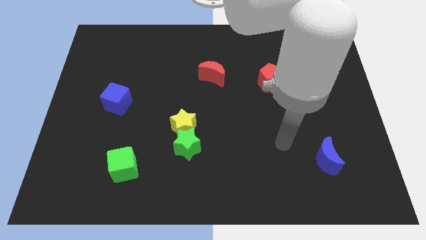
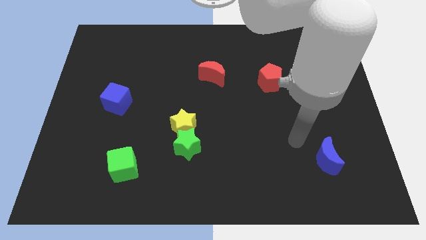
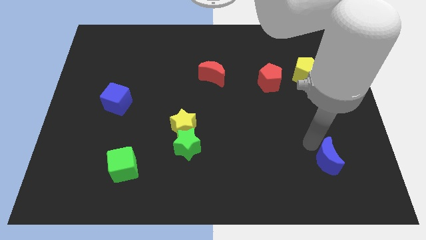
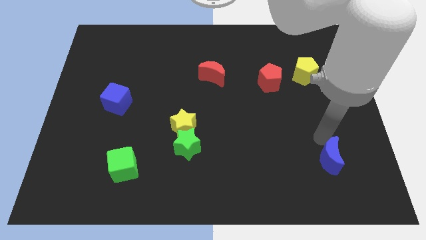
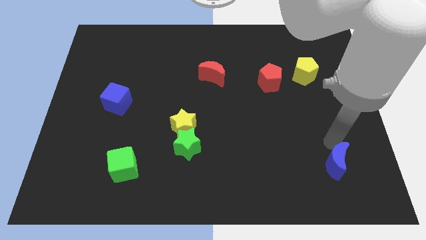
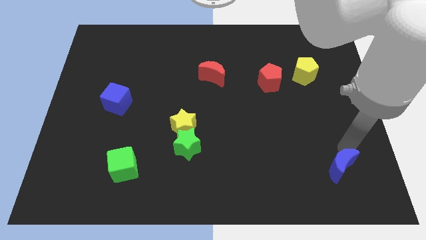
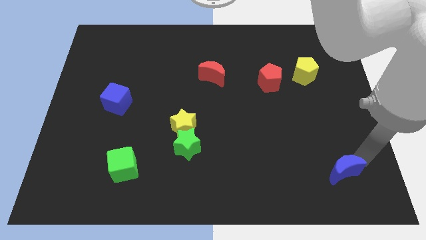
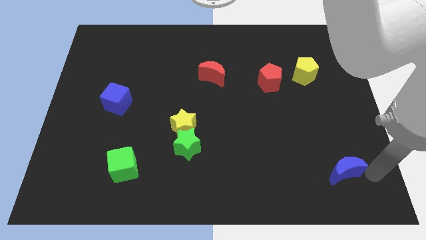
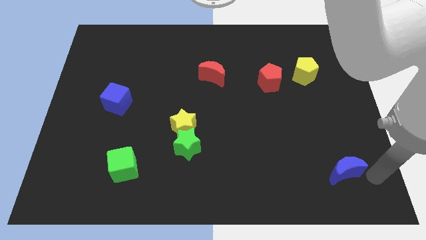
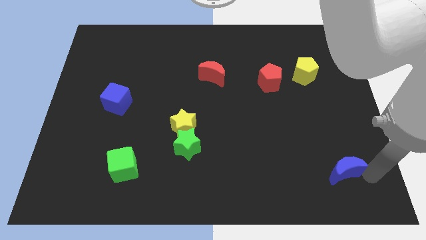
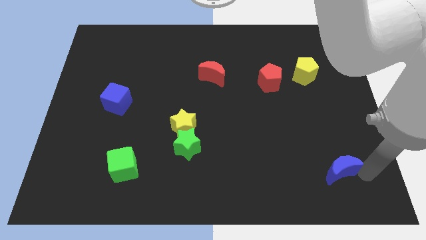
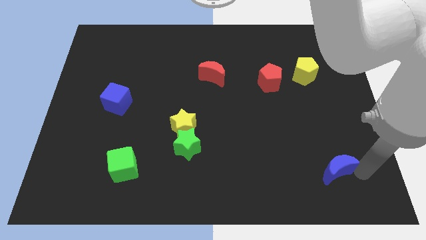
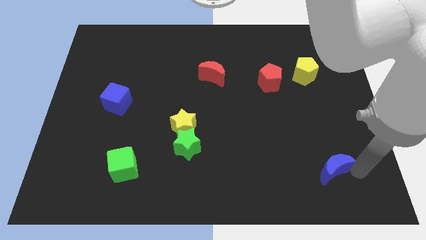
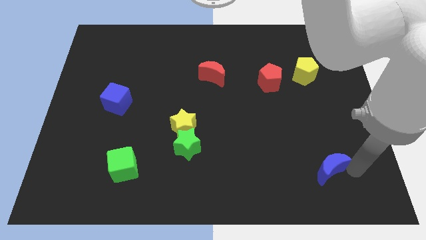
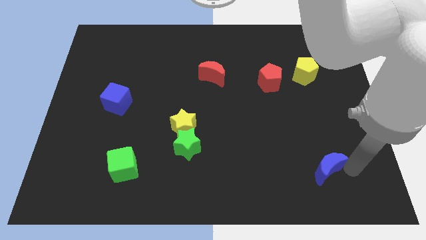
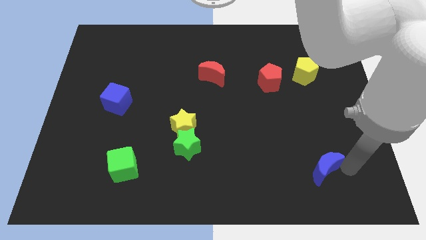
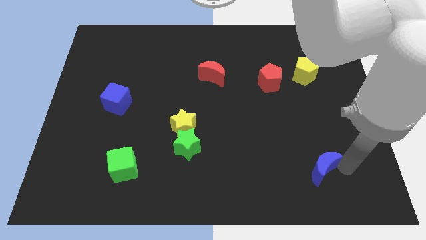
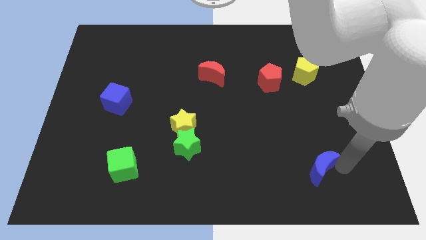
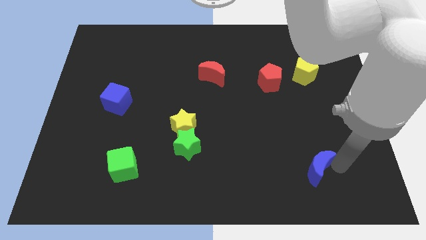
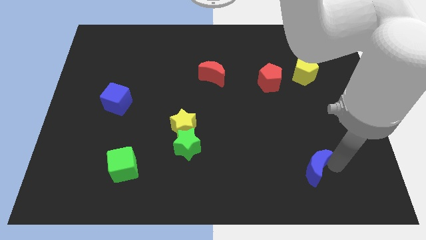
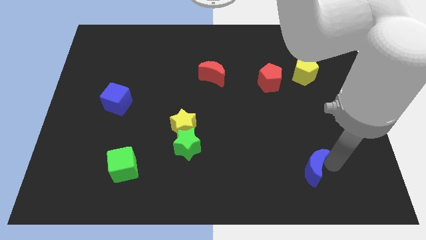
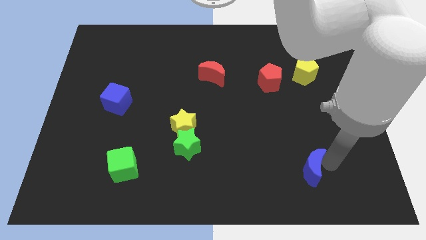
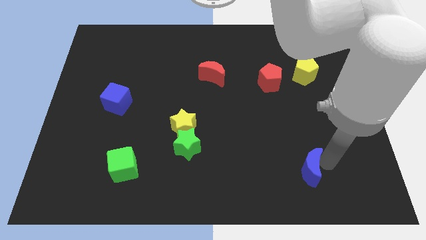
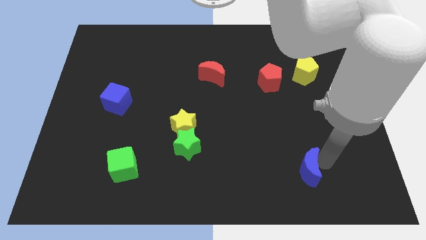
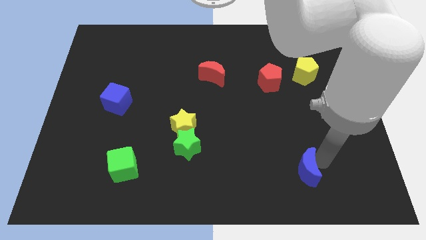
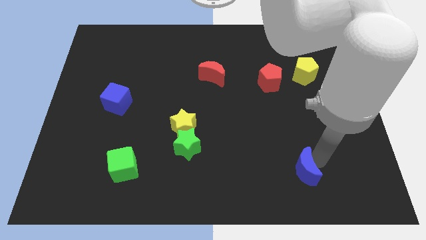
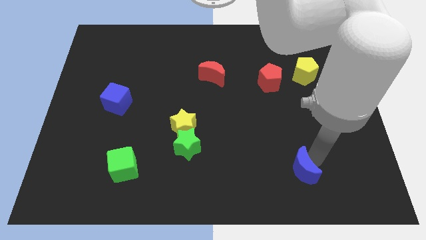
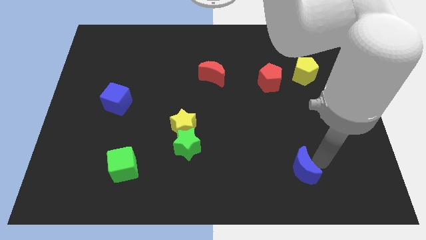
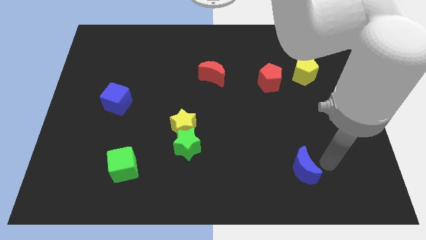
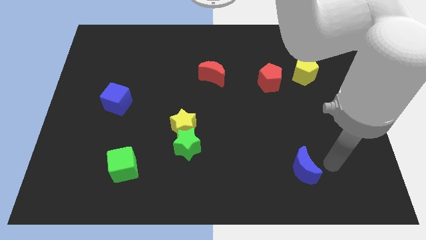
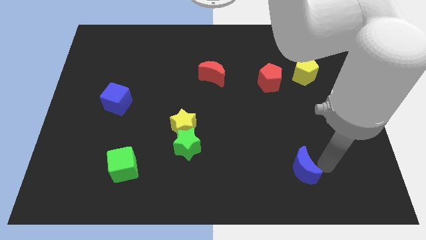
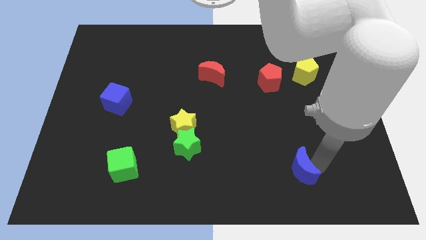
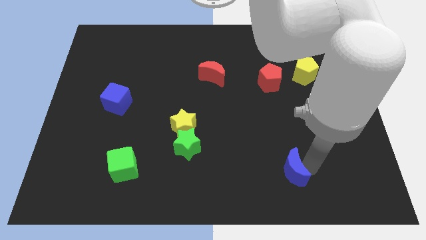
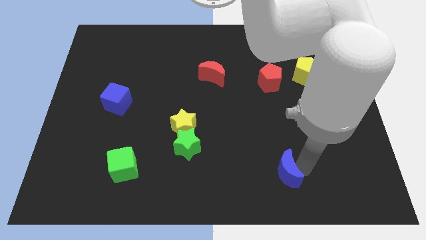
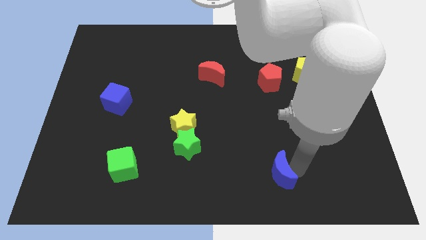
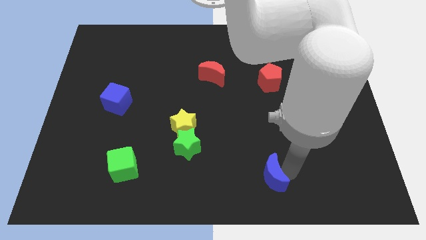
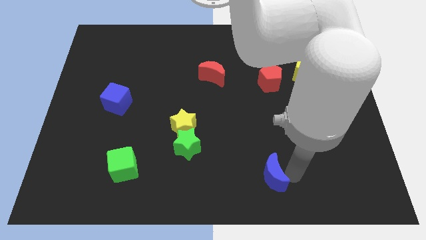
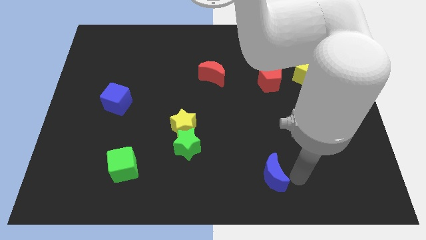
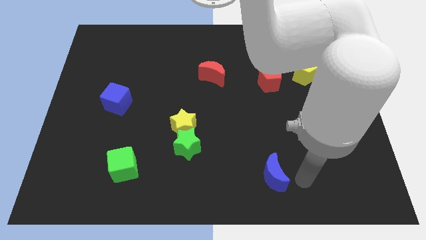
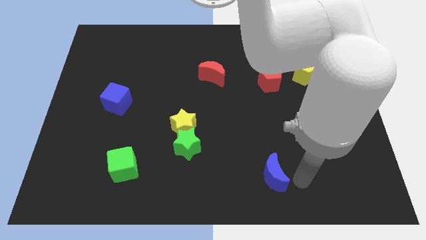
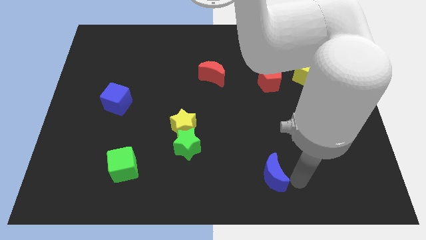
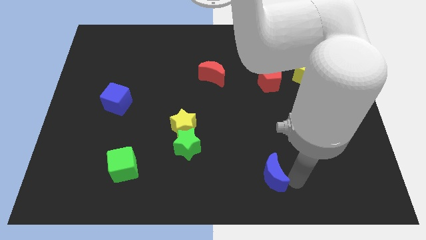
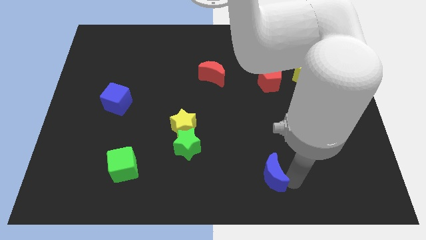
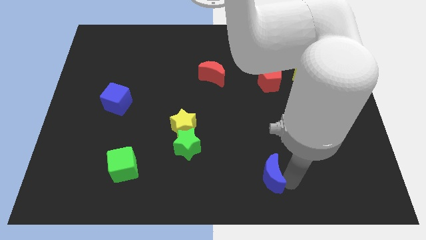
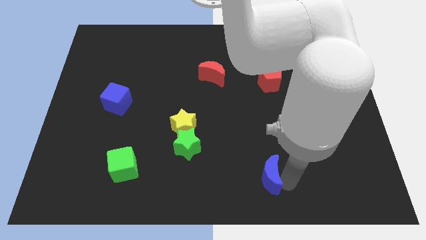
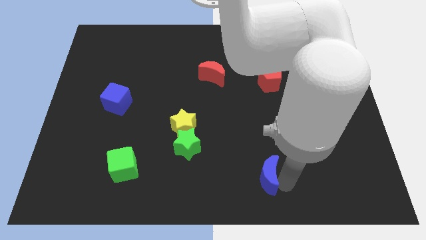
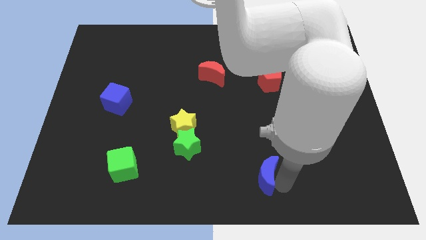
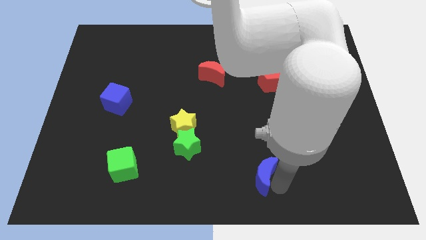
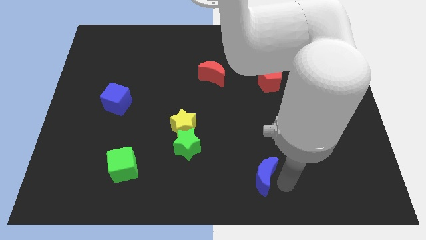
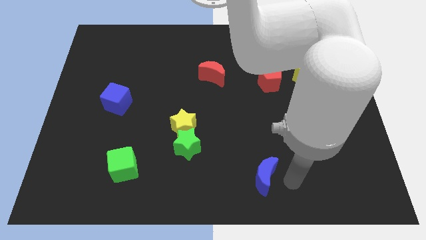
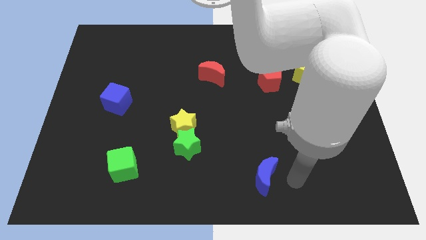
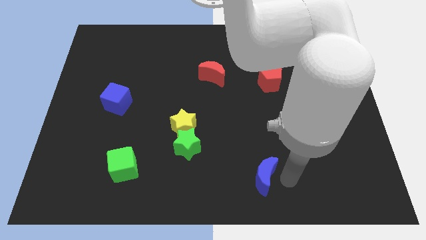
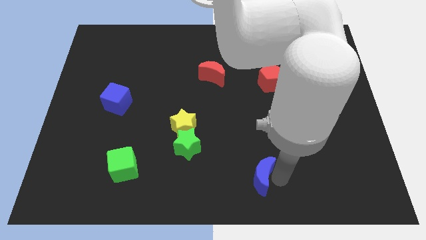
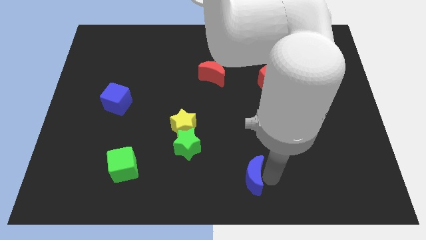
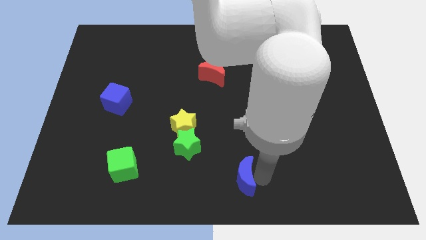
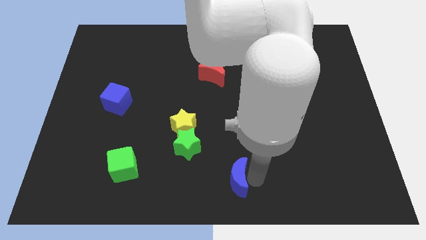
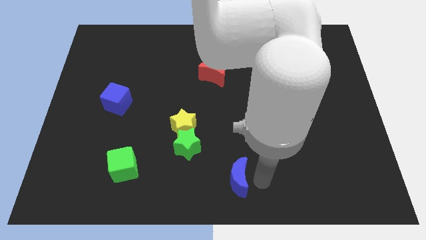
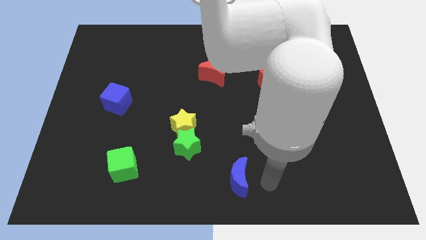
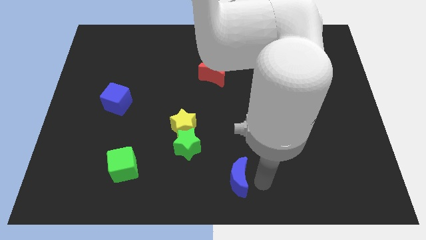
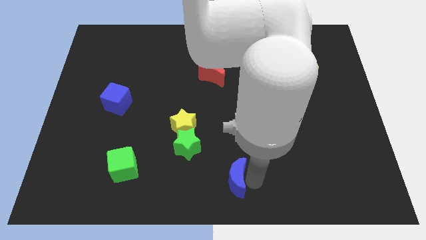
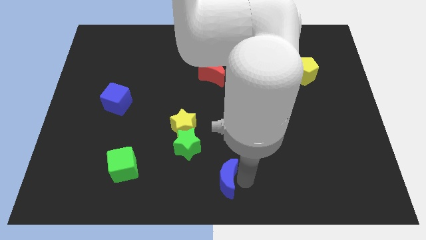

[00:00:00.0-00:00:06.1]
slide the blue moon to the left

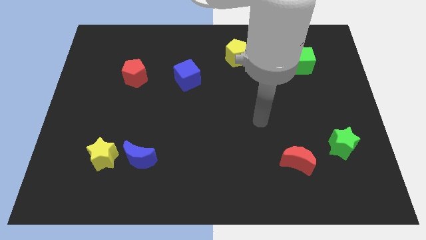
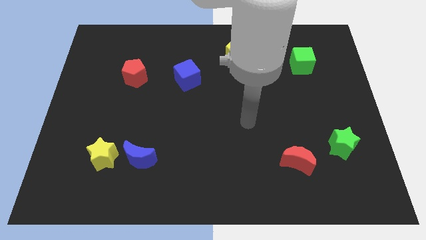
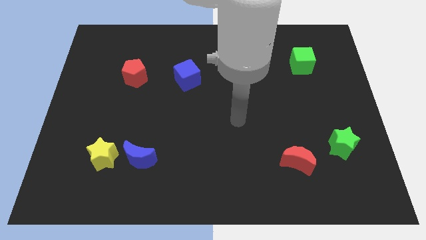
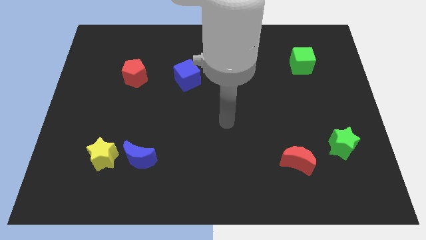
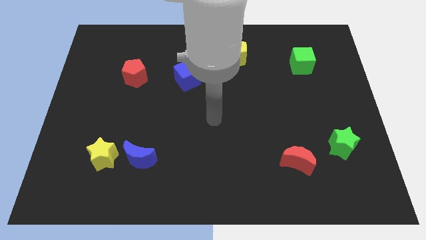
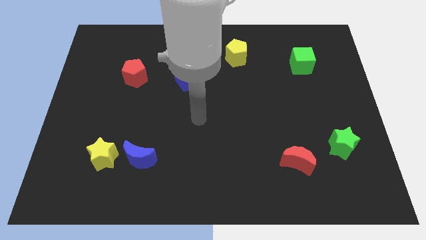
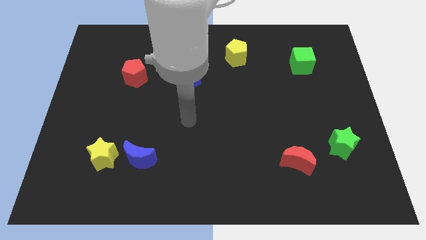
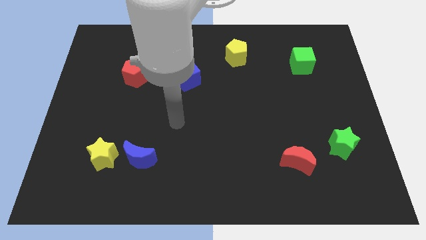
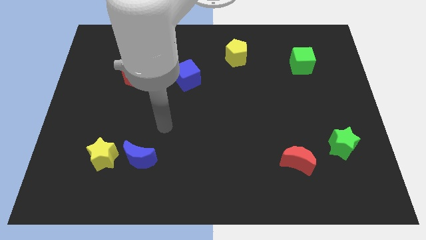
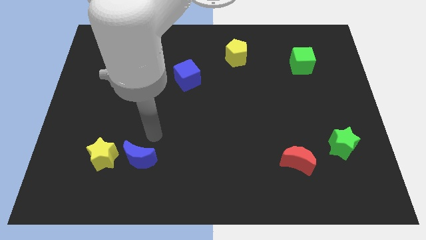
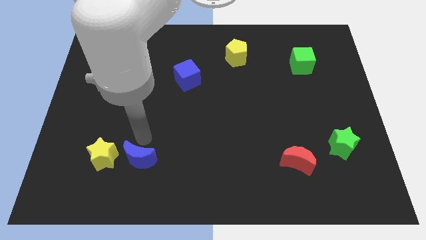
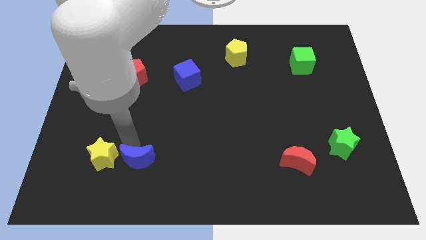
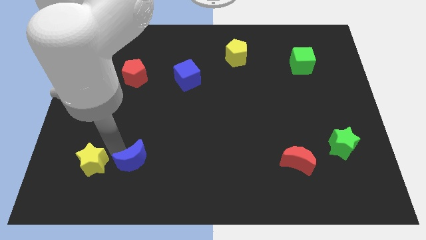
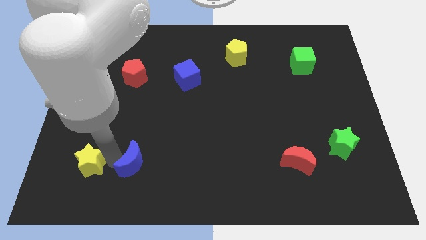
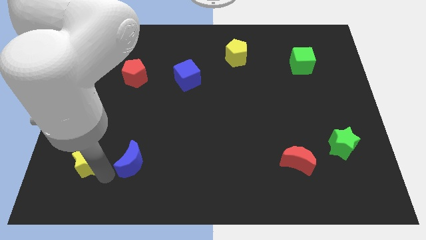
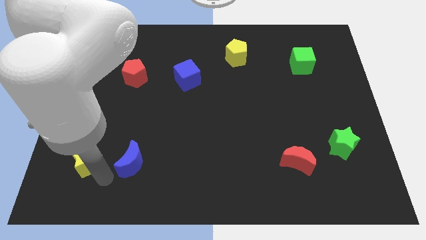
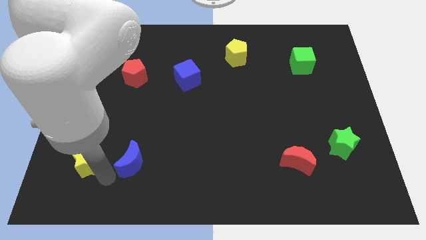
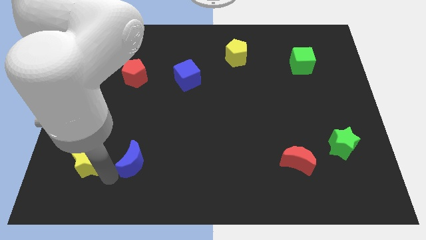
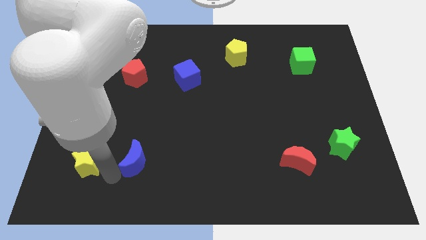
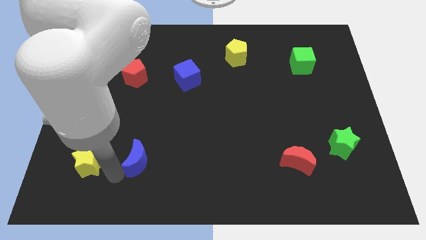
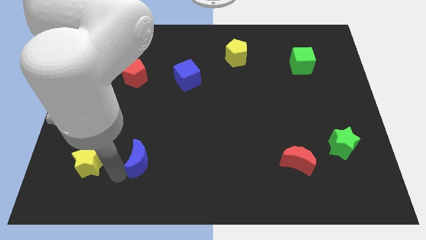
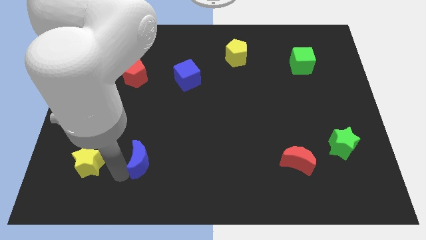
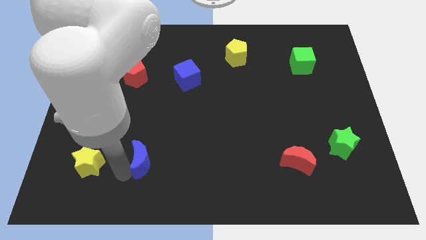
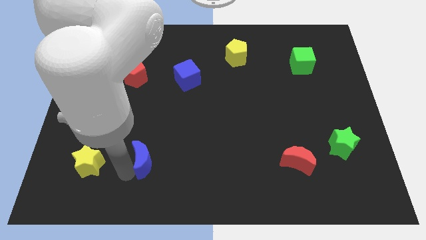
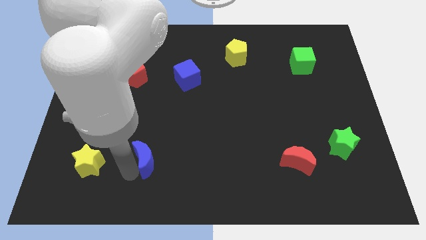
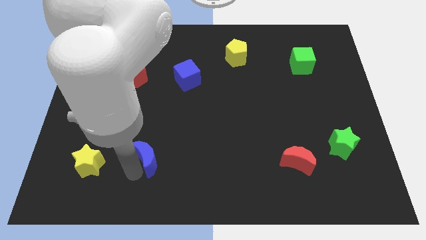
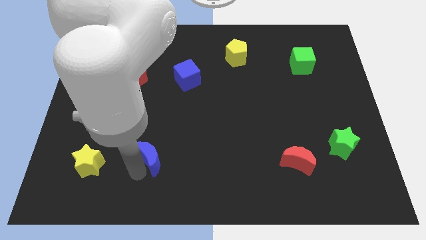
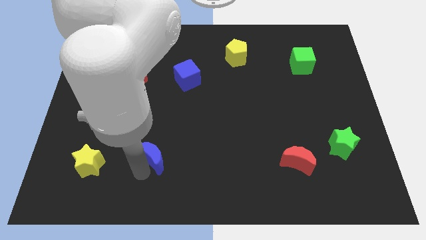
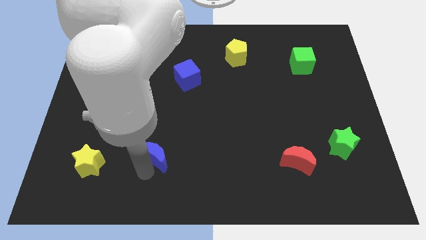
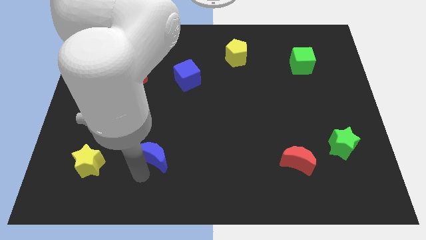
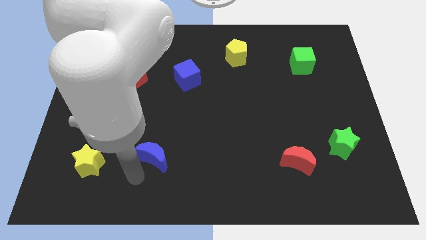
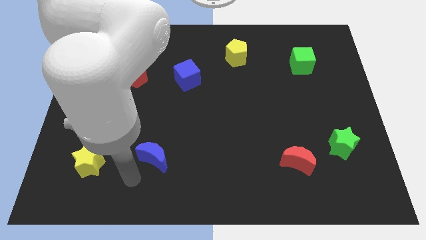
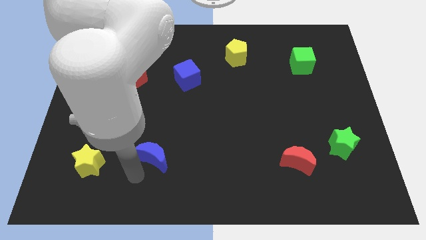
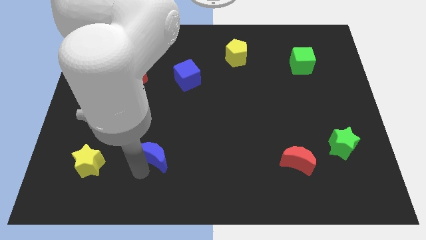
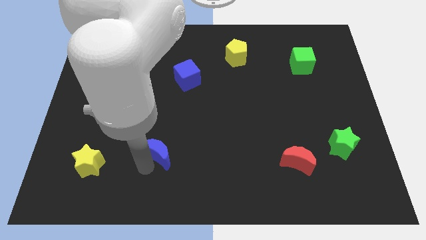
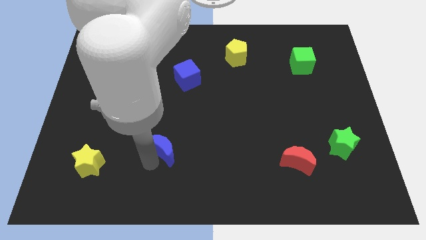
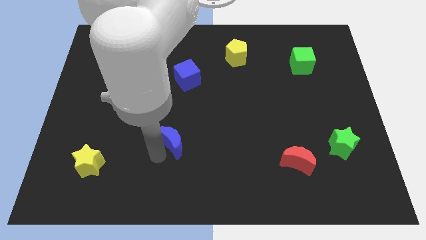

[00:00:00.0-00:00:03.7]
push the blue moon upwards and then to the right a little bit
